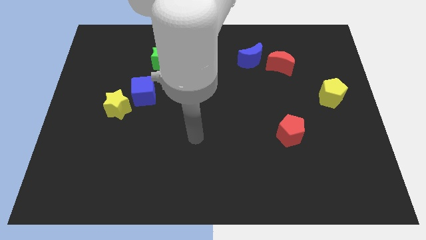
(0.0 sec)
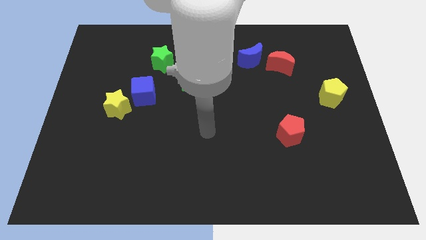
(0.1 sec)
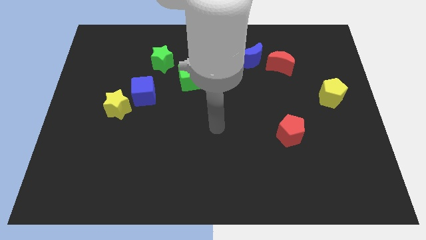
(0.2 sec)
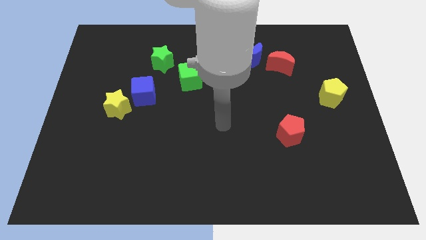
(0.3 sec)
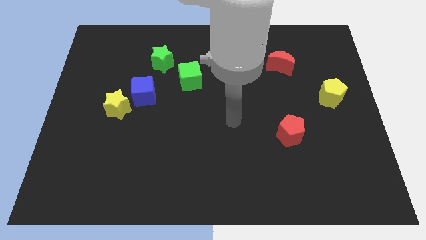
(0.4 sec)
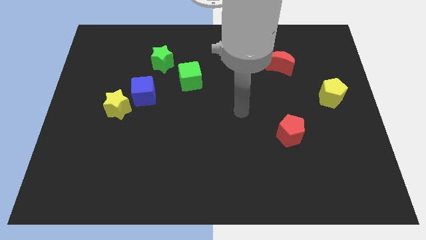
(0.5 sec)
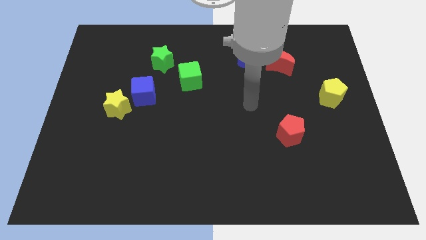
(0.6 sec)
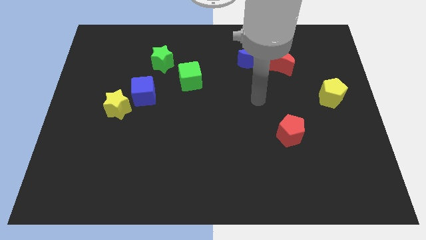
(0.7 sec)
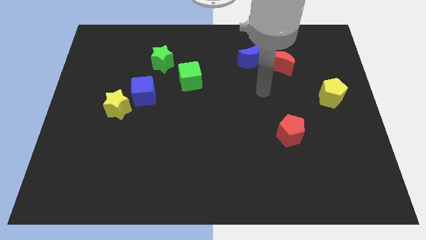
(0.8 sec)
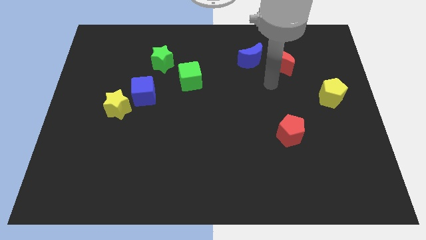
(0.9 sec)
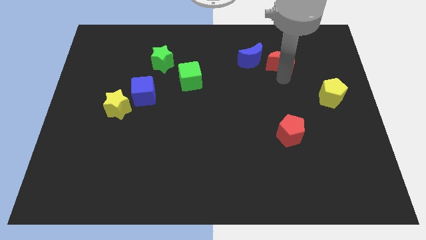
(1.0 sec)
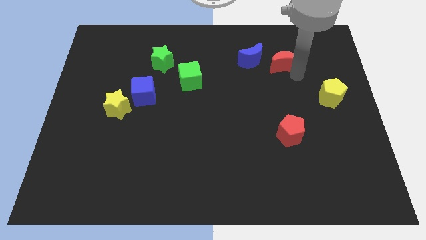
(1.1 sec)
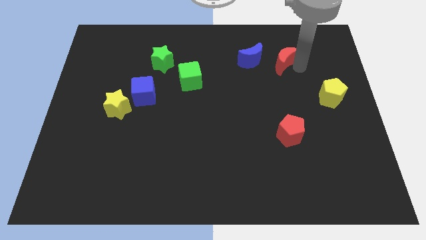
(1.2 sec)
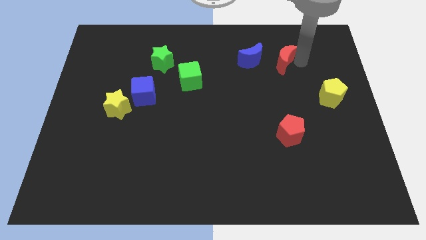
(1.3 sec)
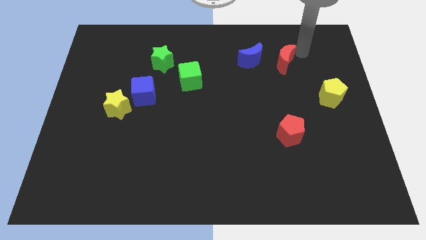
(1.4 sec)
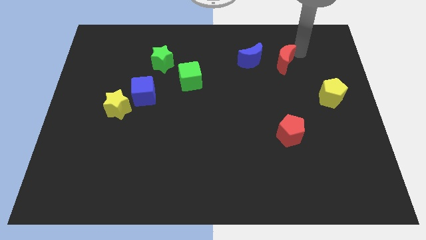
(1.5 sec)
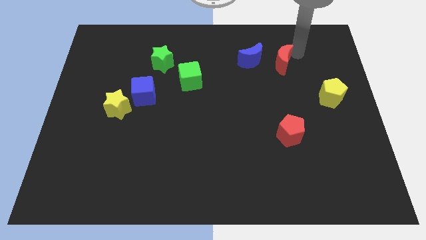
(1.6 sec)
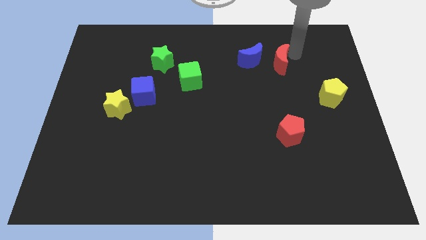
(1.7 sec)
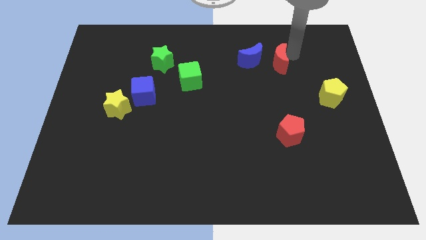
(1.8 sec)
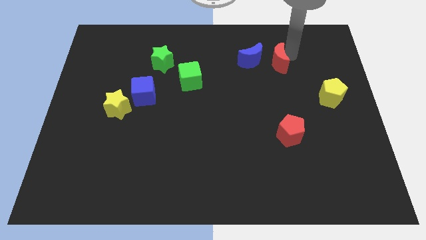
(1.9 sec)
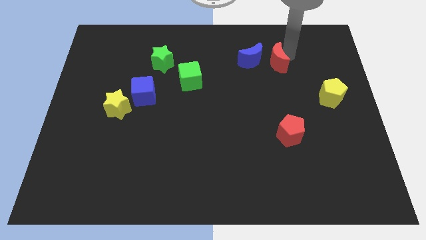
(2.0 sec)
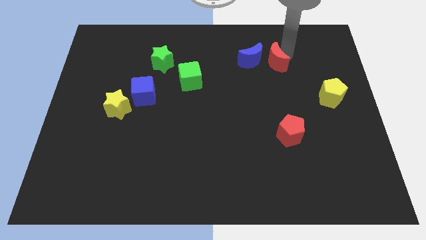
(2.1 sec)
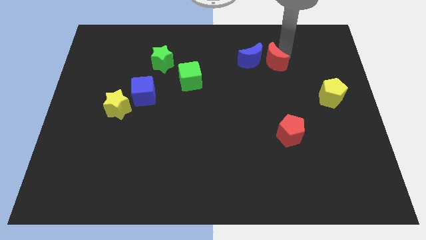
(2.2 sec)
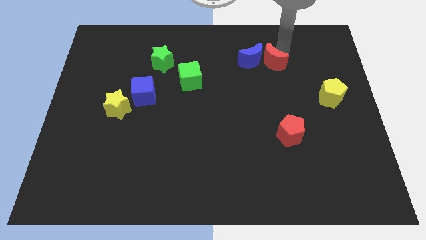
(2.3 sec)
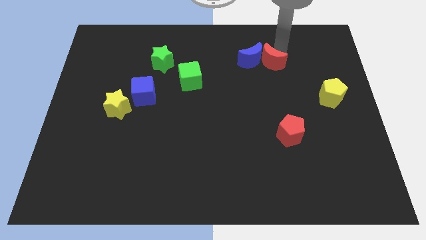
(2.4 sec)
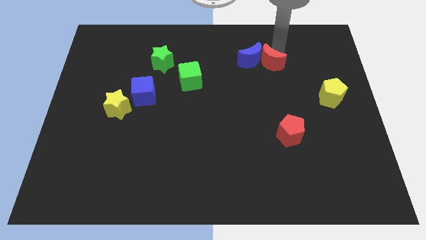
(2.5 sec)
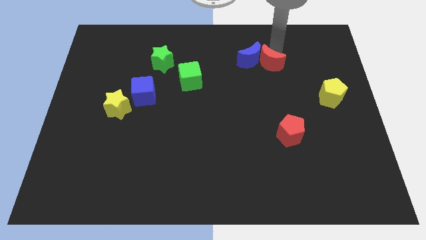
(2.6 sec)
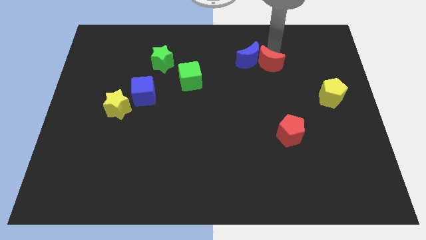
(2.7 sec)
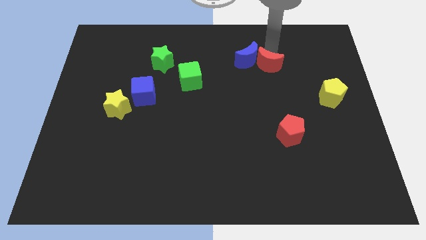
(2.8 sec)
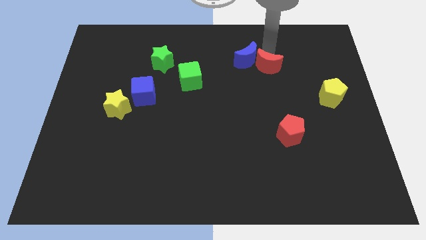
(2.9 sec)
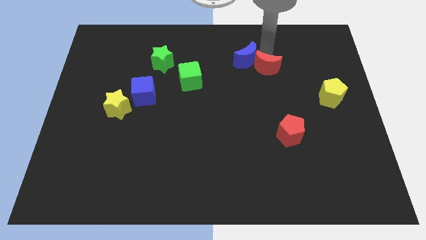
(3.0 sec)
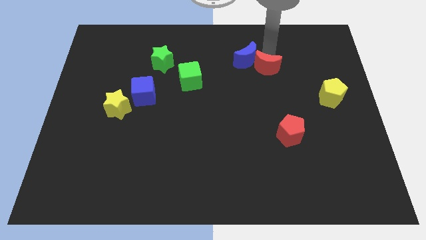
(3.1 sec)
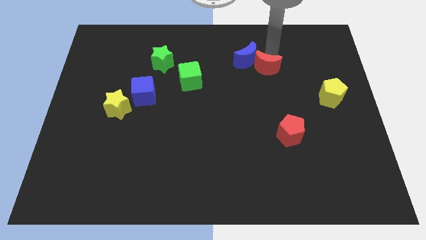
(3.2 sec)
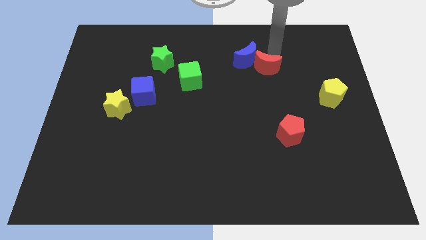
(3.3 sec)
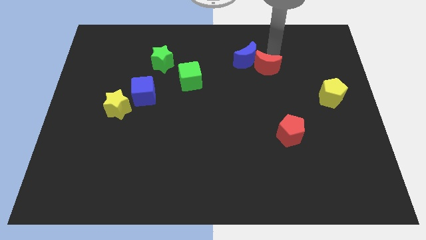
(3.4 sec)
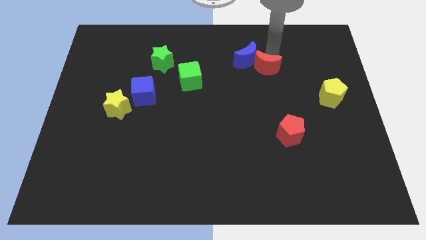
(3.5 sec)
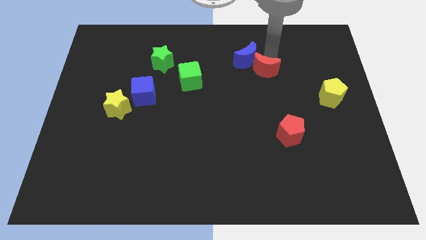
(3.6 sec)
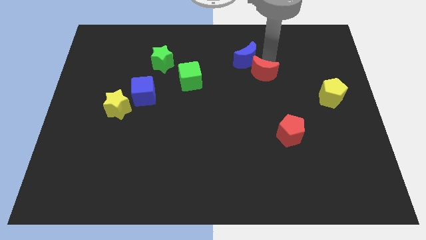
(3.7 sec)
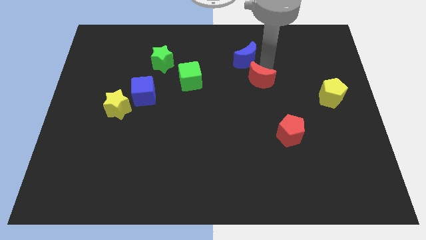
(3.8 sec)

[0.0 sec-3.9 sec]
slide the red moon slightly downwards and left diagonally

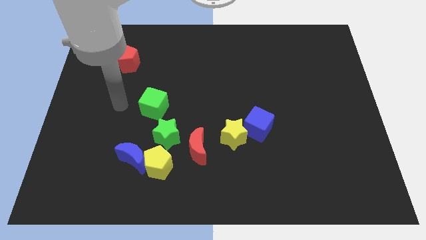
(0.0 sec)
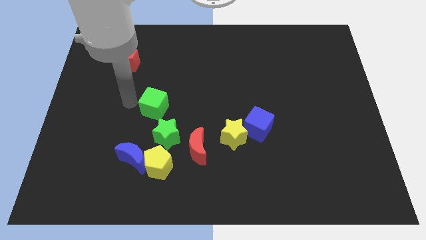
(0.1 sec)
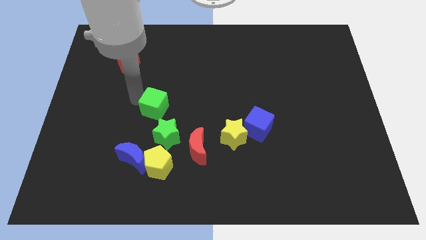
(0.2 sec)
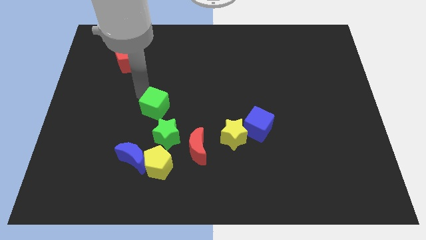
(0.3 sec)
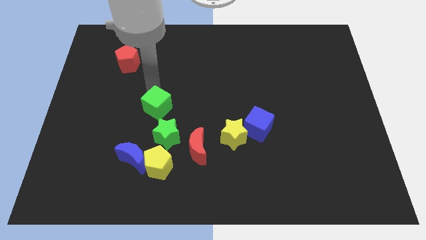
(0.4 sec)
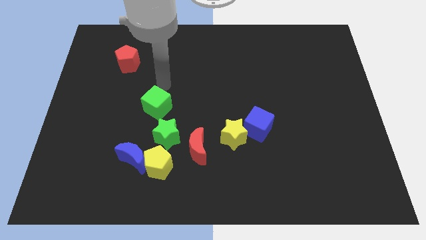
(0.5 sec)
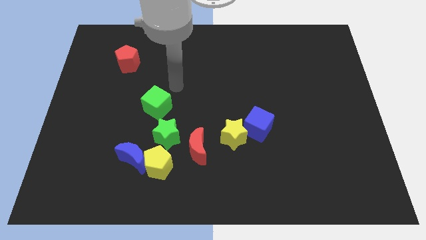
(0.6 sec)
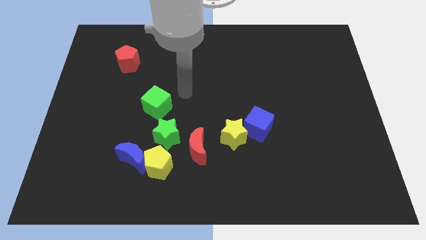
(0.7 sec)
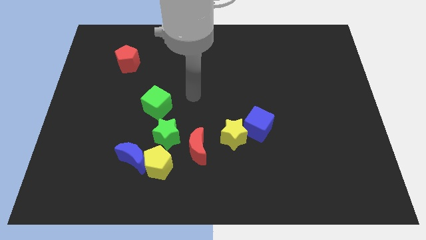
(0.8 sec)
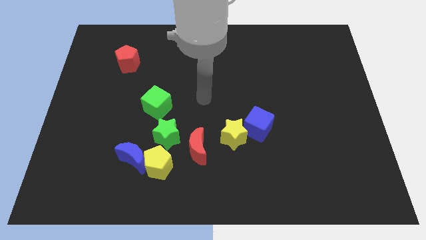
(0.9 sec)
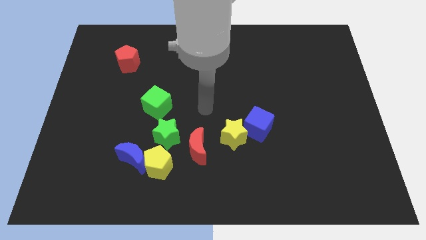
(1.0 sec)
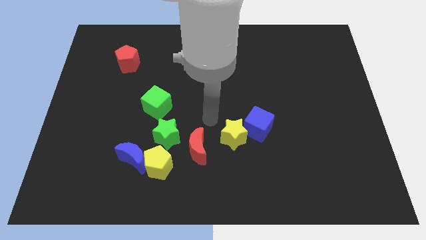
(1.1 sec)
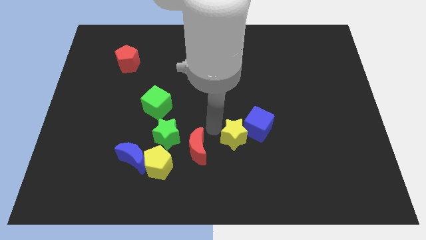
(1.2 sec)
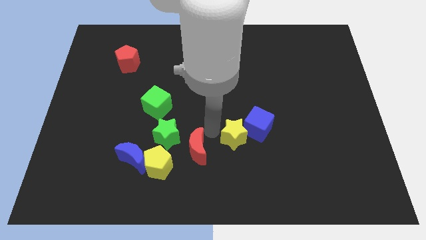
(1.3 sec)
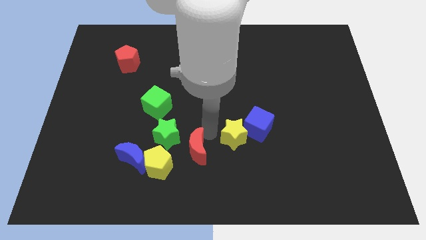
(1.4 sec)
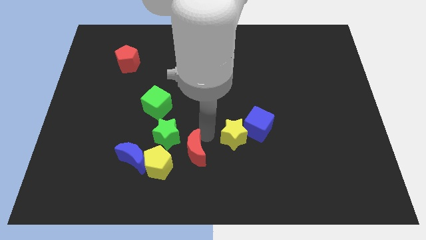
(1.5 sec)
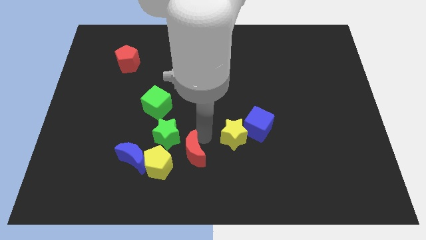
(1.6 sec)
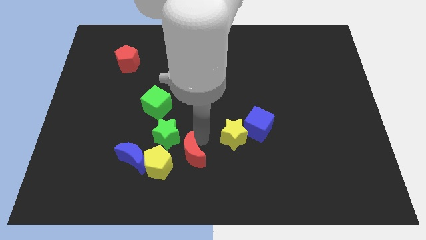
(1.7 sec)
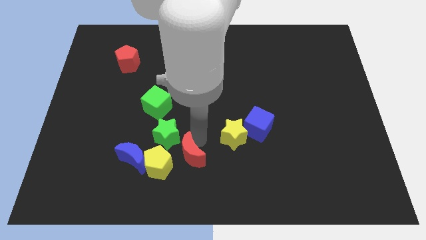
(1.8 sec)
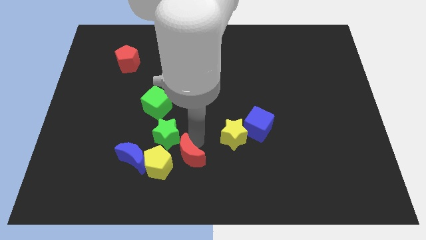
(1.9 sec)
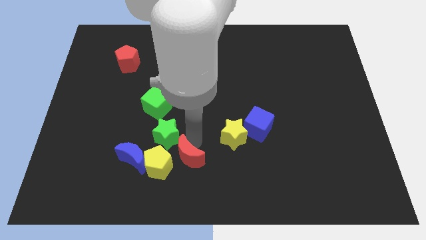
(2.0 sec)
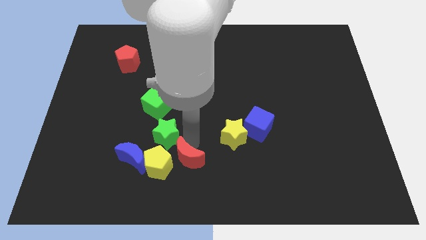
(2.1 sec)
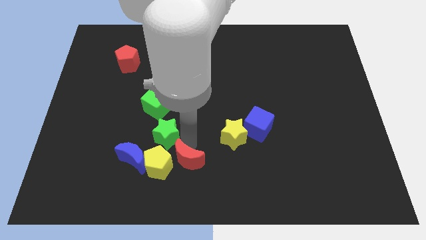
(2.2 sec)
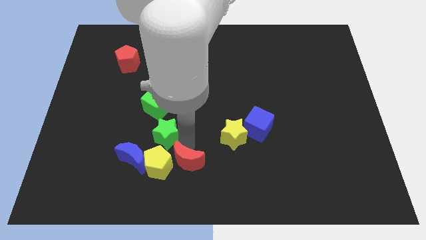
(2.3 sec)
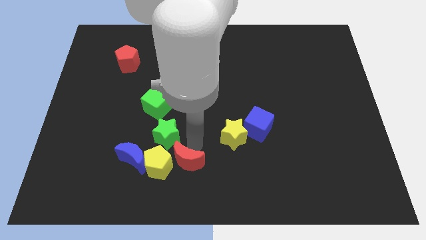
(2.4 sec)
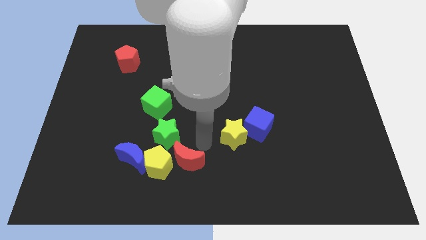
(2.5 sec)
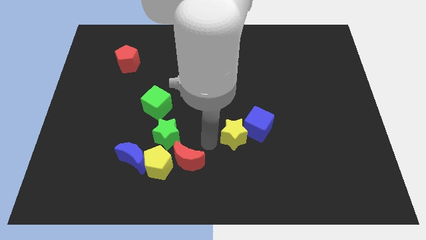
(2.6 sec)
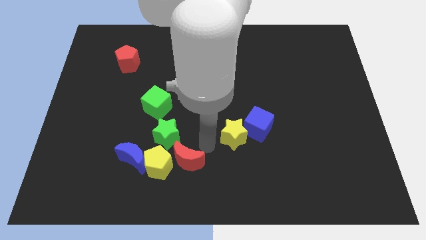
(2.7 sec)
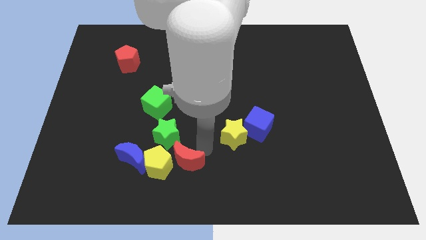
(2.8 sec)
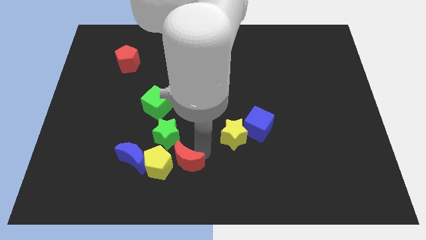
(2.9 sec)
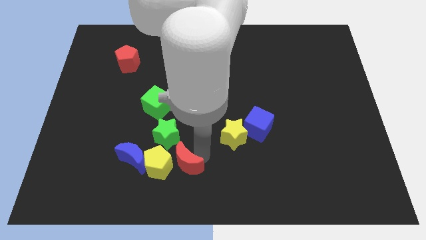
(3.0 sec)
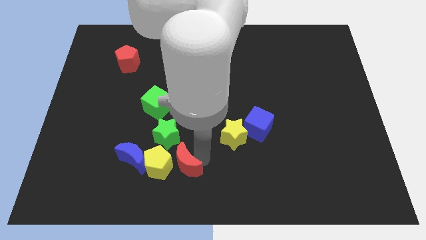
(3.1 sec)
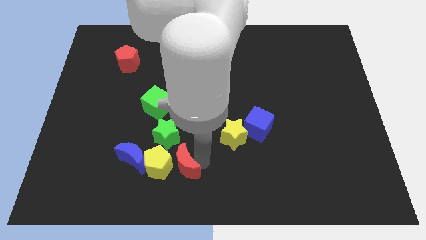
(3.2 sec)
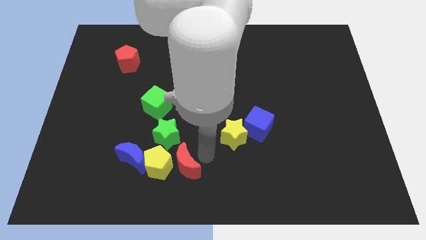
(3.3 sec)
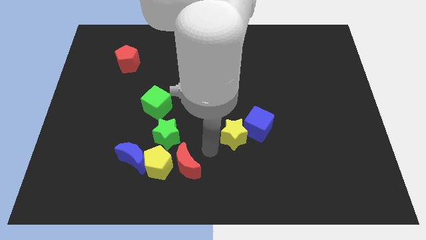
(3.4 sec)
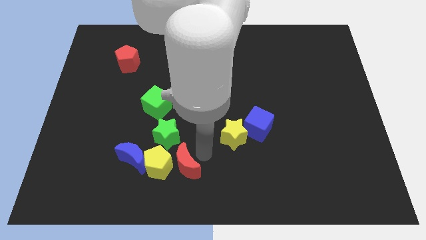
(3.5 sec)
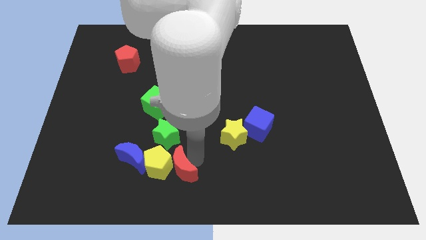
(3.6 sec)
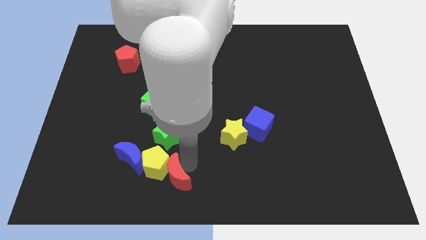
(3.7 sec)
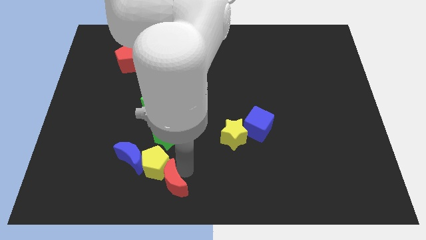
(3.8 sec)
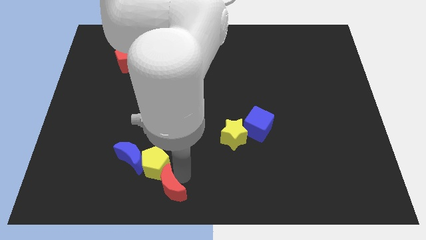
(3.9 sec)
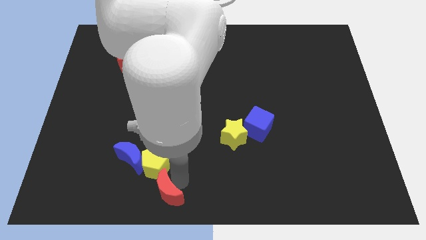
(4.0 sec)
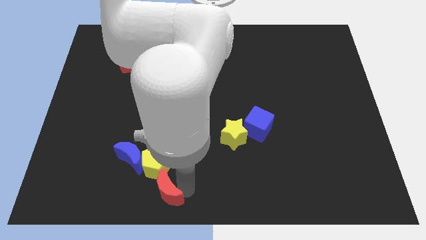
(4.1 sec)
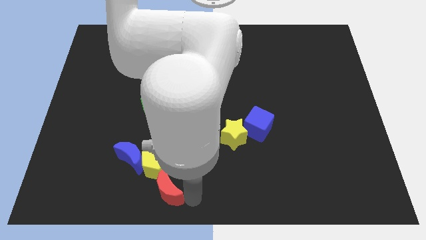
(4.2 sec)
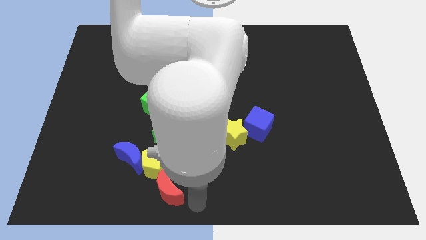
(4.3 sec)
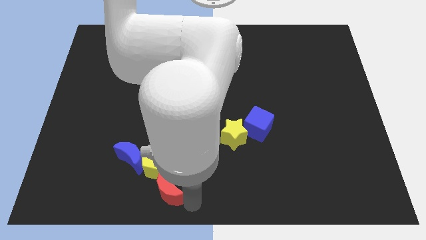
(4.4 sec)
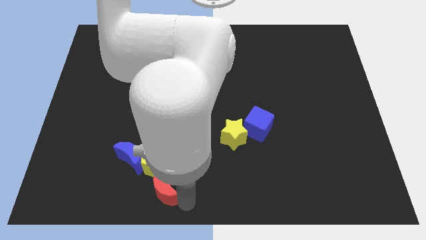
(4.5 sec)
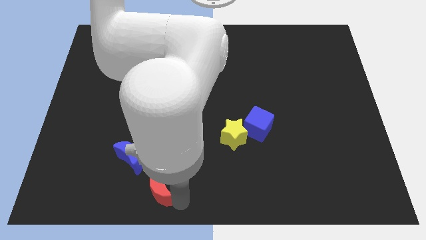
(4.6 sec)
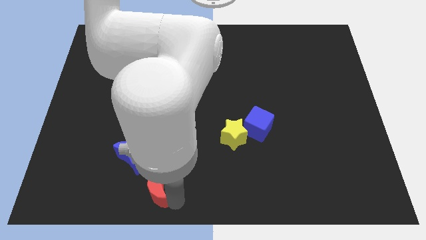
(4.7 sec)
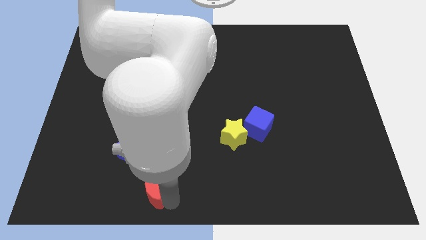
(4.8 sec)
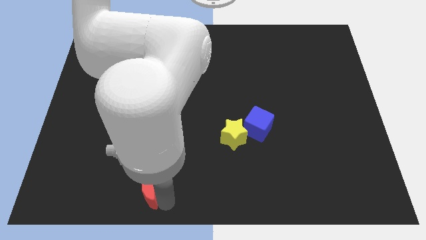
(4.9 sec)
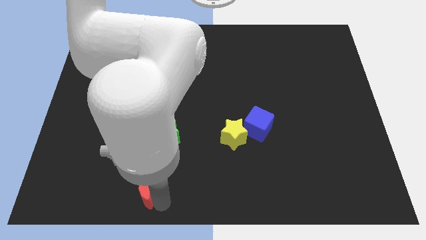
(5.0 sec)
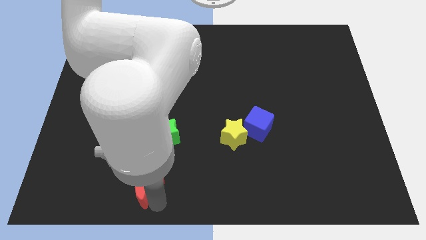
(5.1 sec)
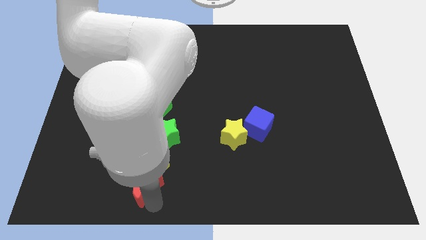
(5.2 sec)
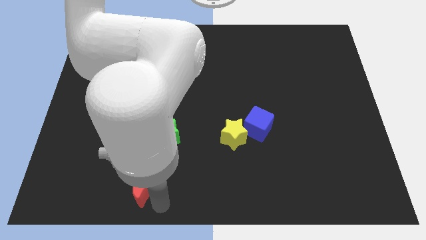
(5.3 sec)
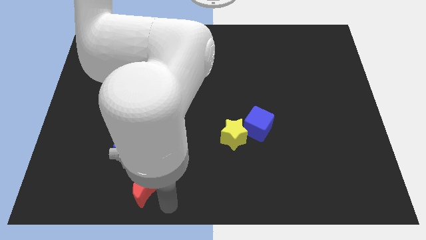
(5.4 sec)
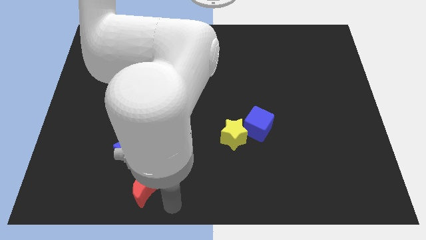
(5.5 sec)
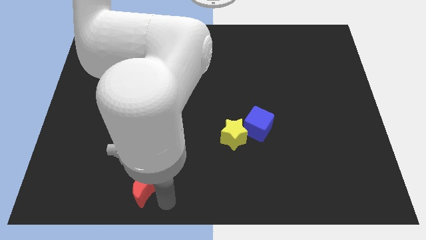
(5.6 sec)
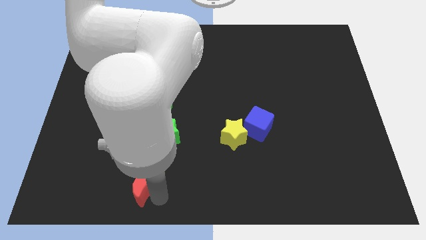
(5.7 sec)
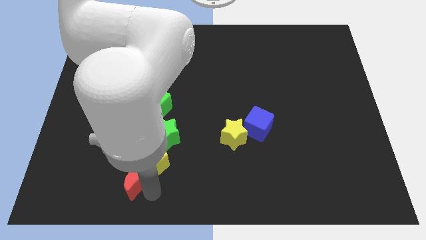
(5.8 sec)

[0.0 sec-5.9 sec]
slightly push the red moon left
